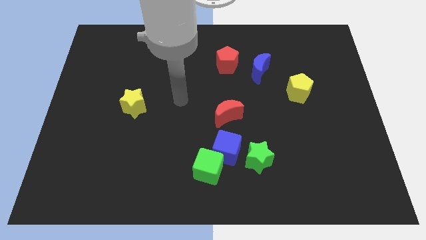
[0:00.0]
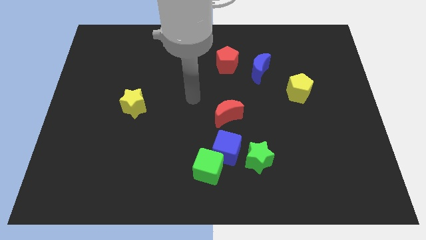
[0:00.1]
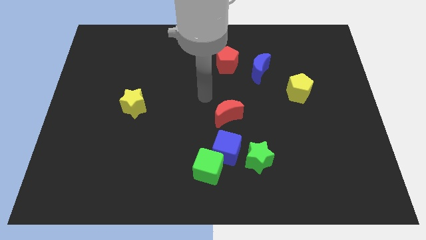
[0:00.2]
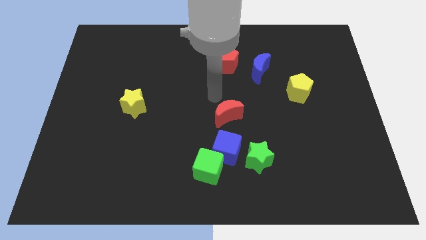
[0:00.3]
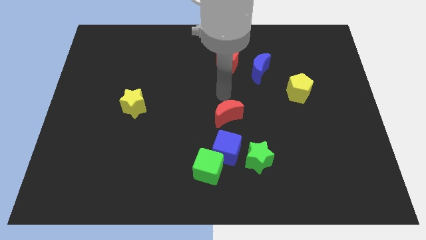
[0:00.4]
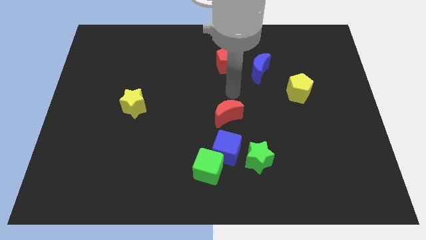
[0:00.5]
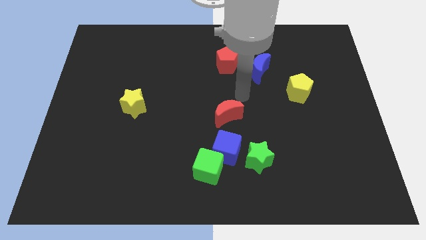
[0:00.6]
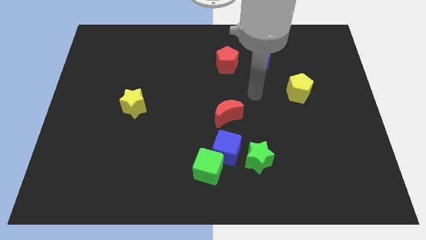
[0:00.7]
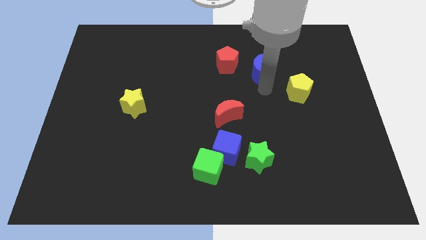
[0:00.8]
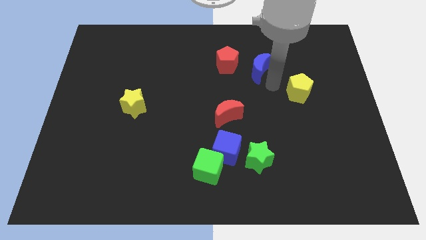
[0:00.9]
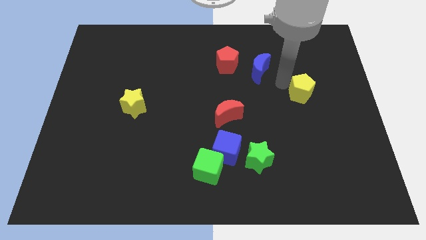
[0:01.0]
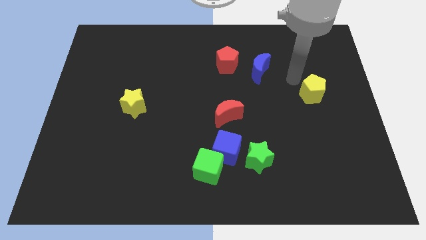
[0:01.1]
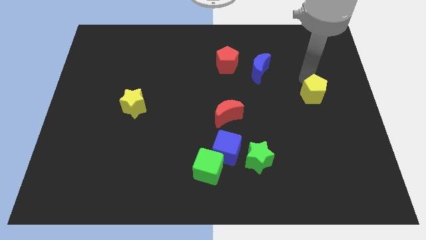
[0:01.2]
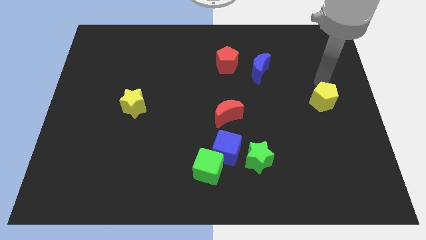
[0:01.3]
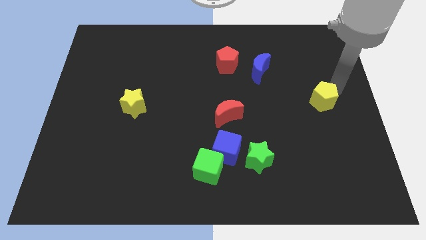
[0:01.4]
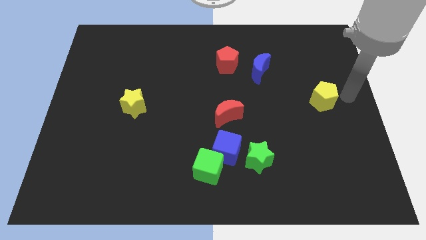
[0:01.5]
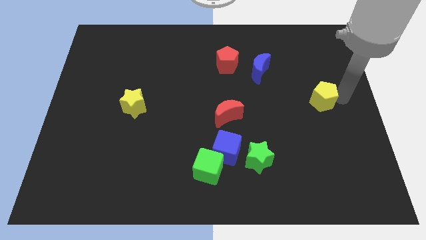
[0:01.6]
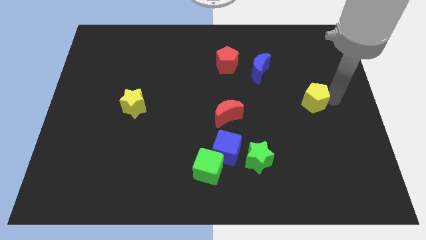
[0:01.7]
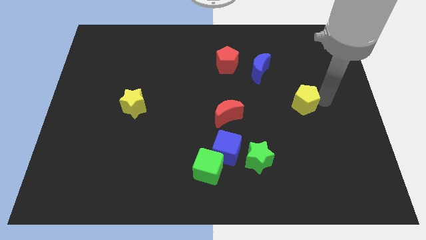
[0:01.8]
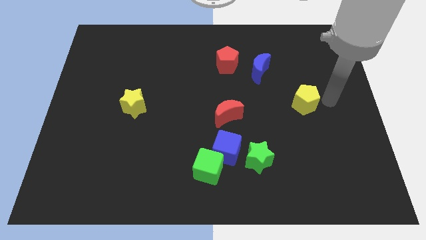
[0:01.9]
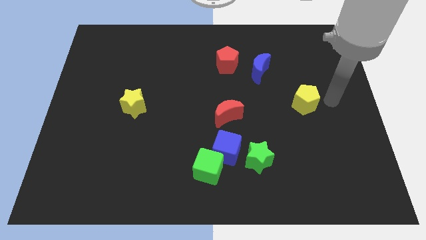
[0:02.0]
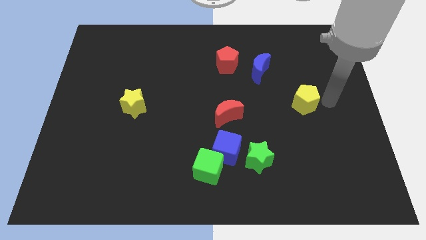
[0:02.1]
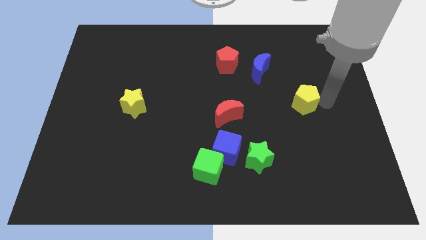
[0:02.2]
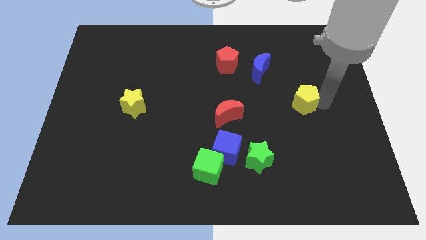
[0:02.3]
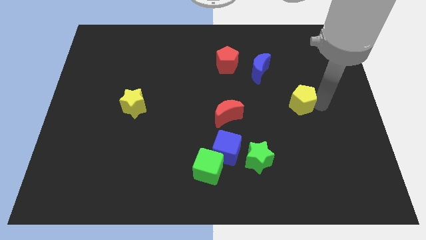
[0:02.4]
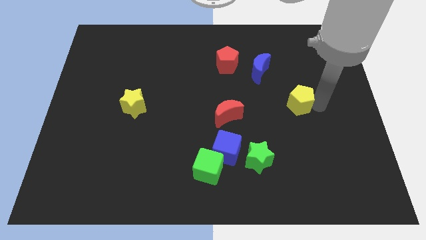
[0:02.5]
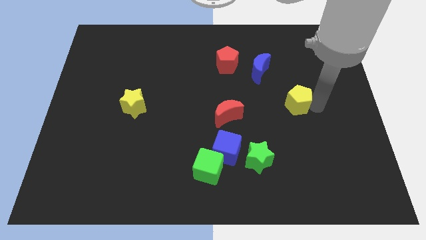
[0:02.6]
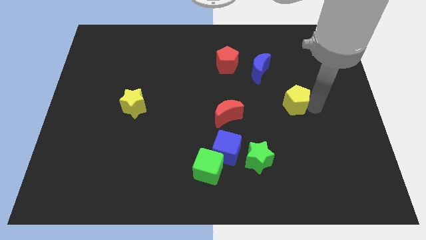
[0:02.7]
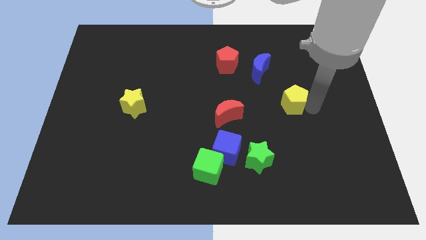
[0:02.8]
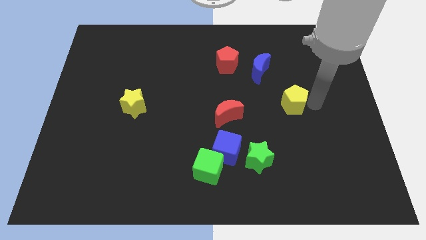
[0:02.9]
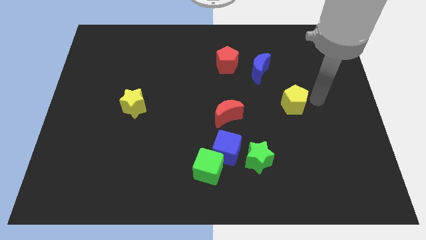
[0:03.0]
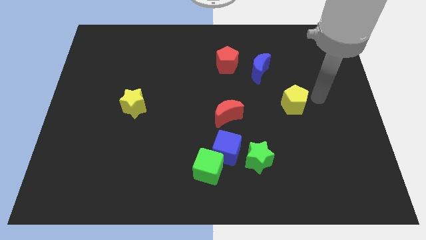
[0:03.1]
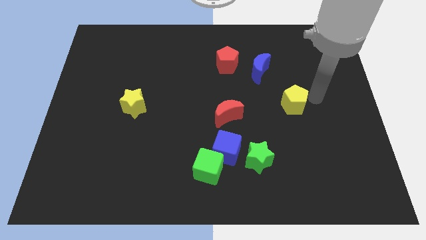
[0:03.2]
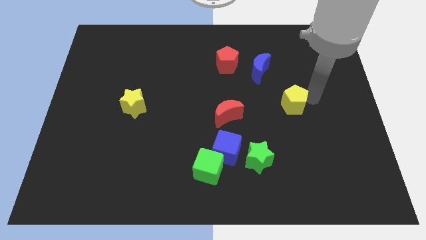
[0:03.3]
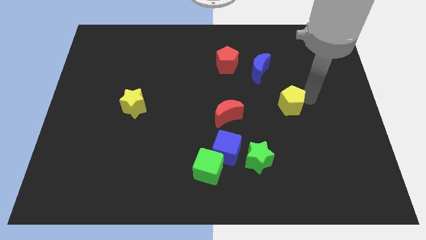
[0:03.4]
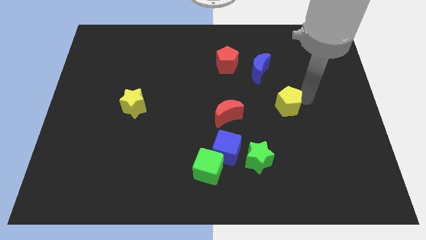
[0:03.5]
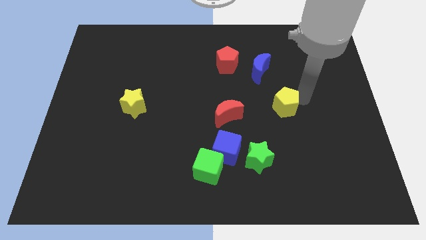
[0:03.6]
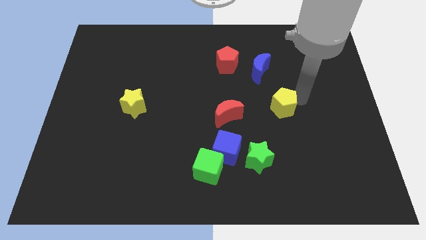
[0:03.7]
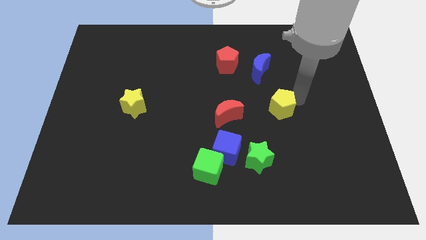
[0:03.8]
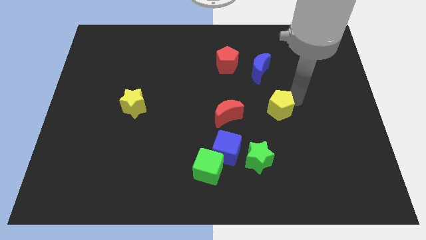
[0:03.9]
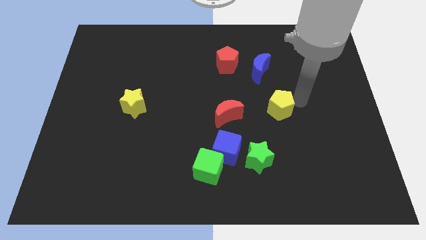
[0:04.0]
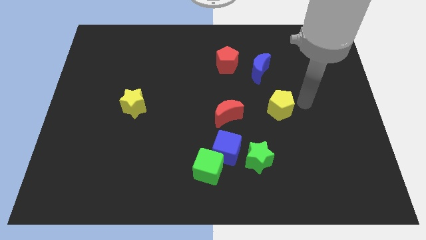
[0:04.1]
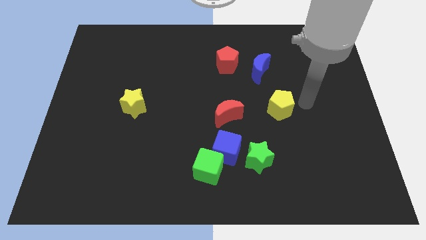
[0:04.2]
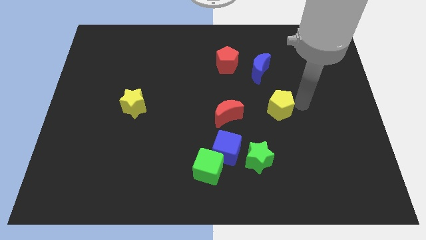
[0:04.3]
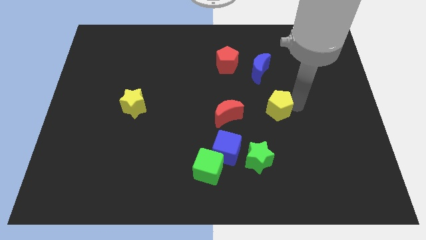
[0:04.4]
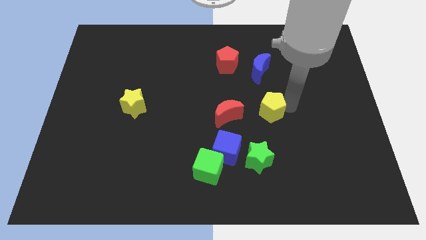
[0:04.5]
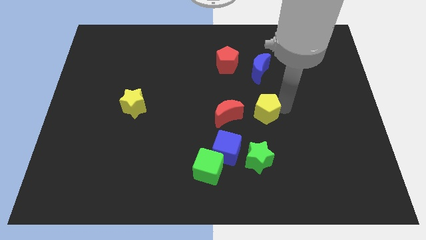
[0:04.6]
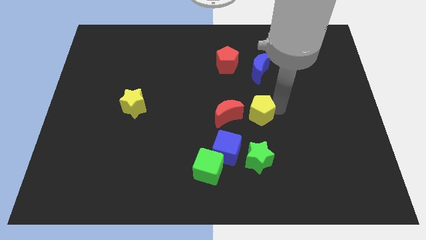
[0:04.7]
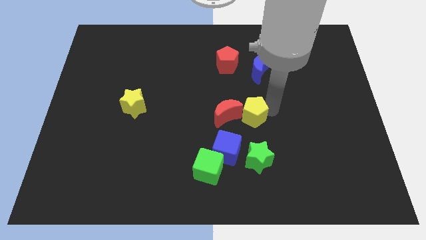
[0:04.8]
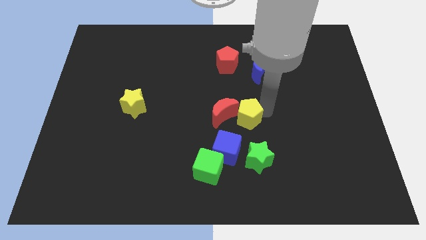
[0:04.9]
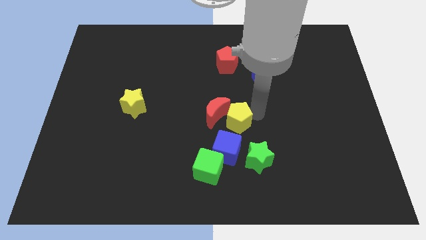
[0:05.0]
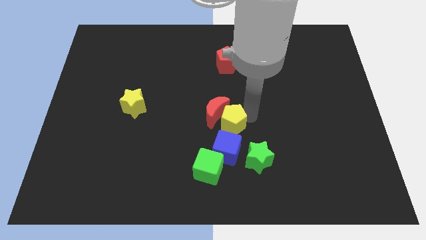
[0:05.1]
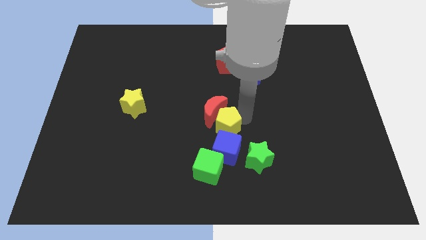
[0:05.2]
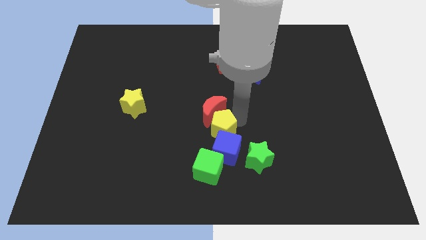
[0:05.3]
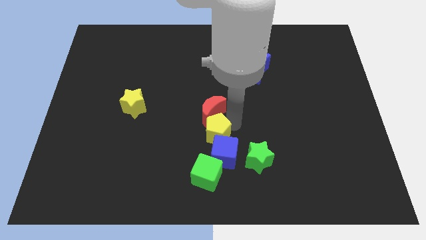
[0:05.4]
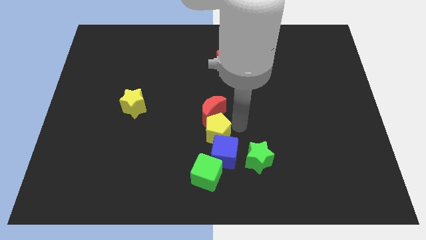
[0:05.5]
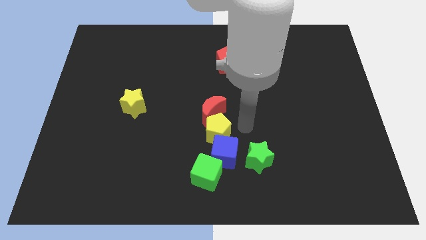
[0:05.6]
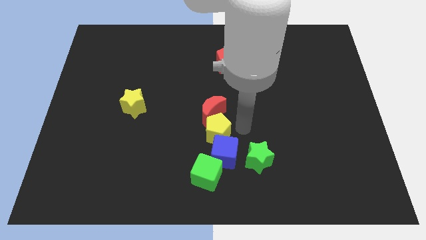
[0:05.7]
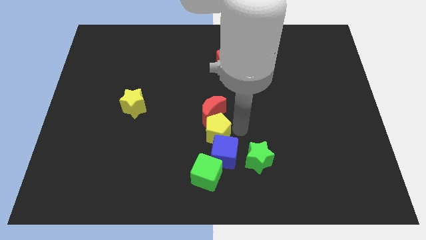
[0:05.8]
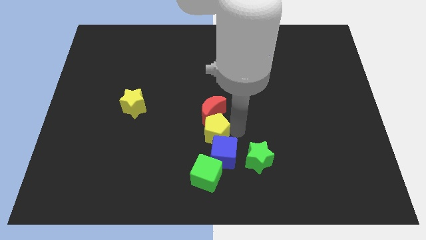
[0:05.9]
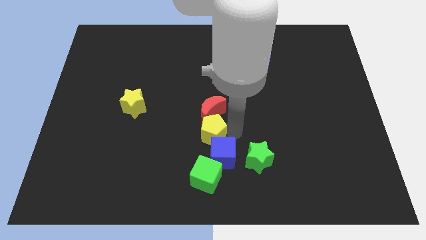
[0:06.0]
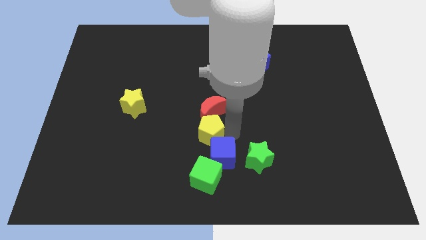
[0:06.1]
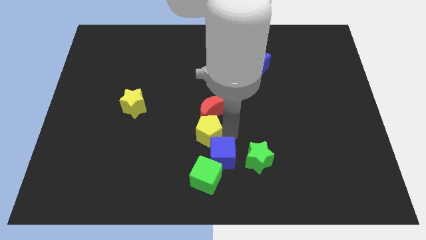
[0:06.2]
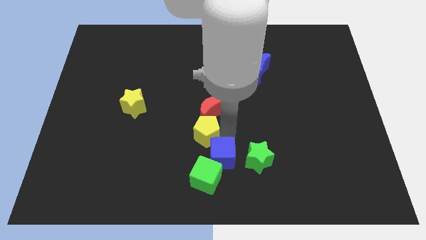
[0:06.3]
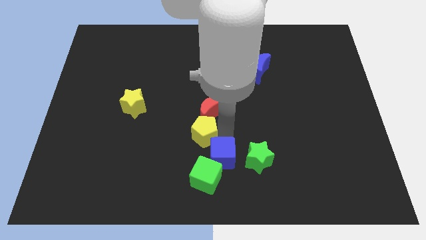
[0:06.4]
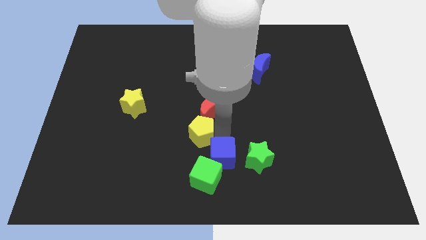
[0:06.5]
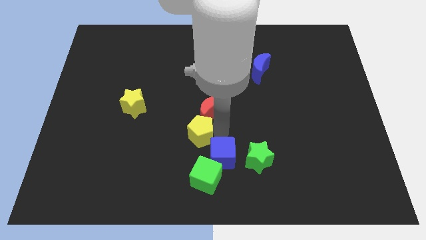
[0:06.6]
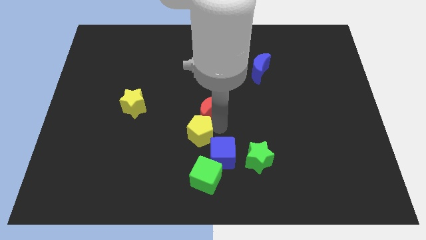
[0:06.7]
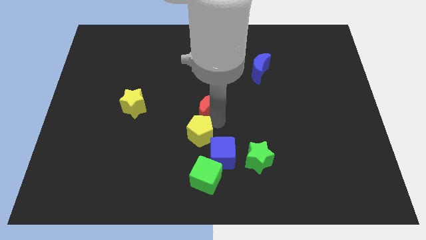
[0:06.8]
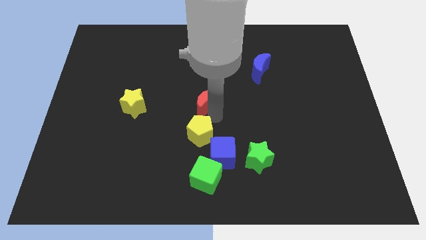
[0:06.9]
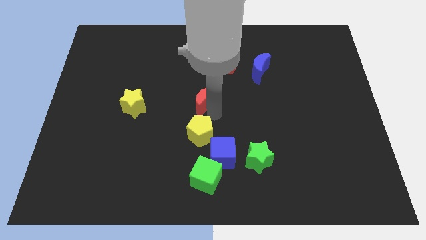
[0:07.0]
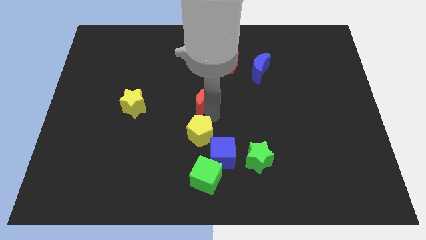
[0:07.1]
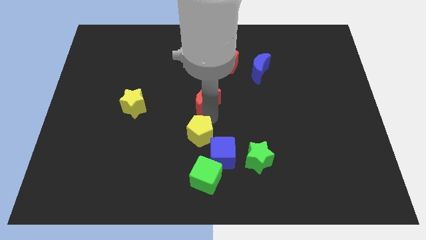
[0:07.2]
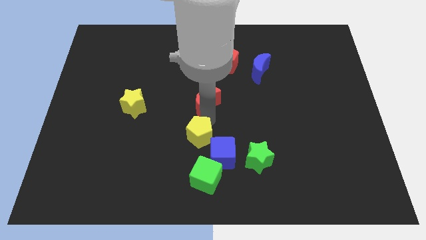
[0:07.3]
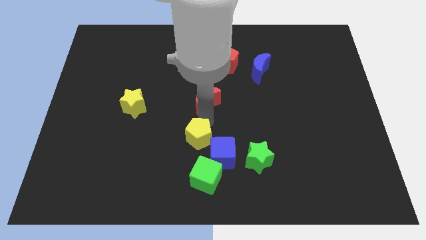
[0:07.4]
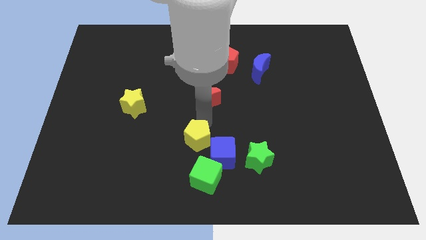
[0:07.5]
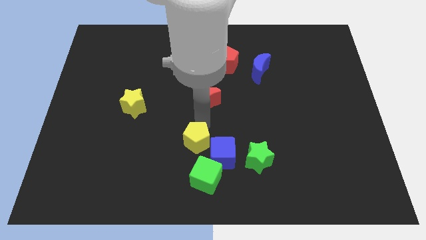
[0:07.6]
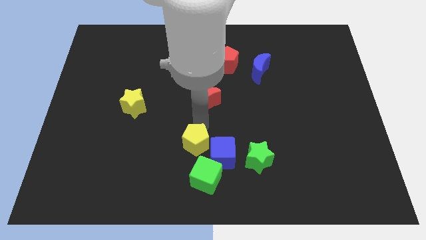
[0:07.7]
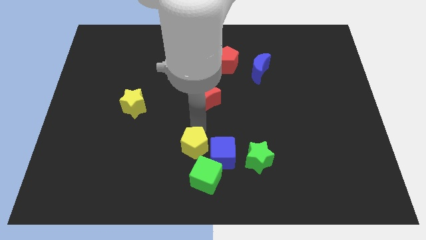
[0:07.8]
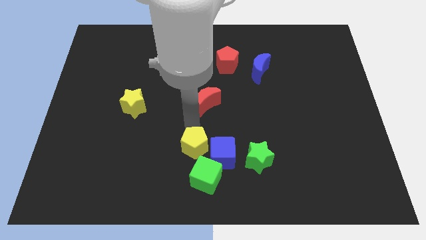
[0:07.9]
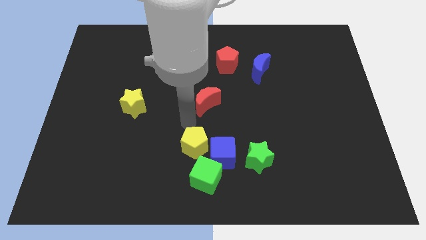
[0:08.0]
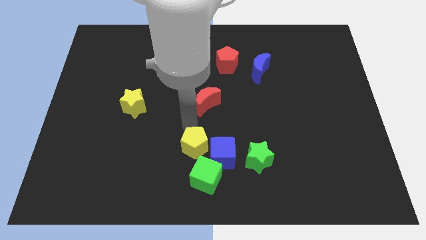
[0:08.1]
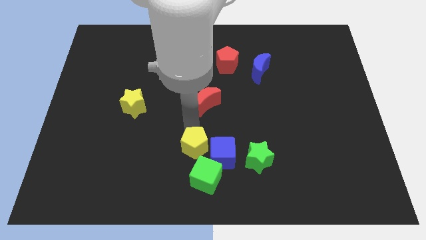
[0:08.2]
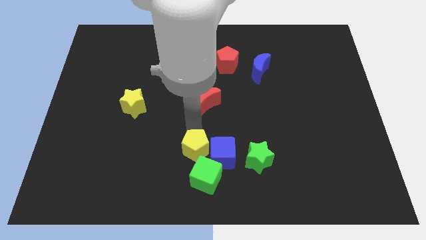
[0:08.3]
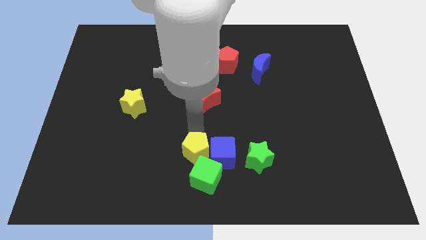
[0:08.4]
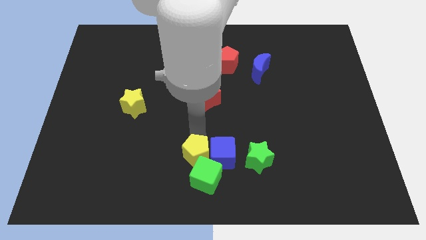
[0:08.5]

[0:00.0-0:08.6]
slide the yellow pentagon close to the green cube
